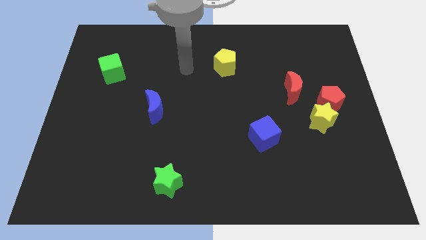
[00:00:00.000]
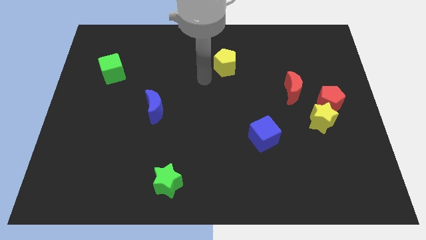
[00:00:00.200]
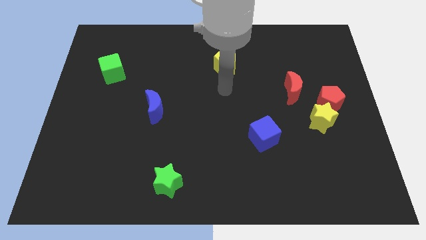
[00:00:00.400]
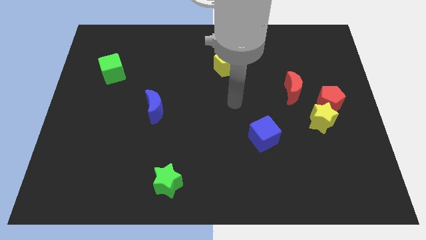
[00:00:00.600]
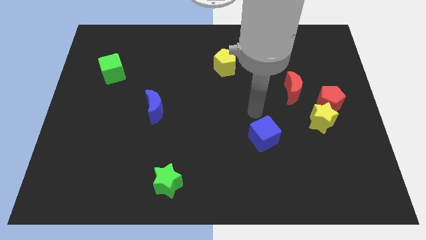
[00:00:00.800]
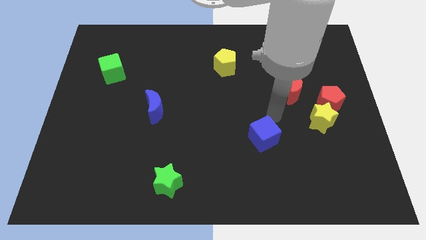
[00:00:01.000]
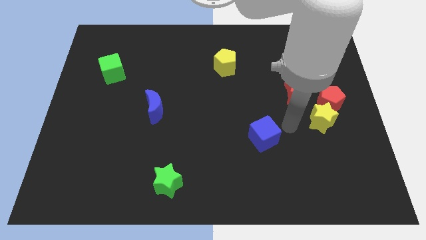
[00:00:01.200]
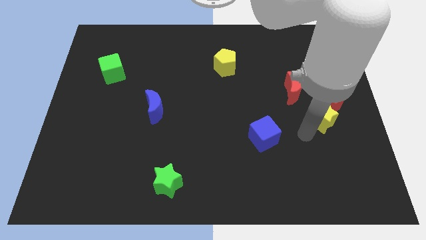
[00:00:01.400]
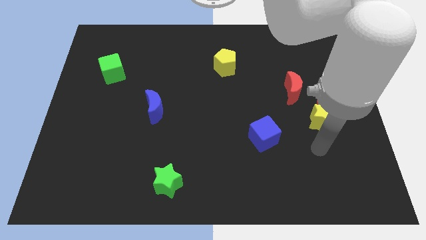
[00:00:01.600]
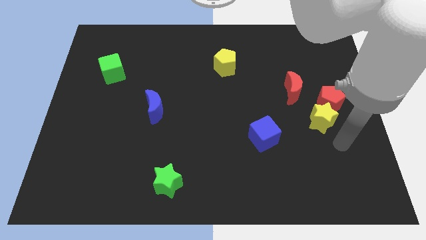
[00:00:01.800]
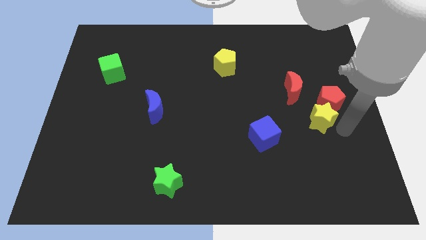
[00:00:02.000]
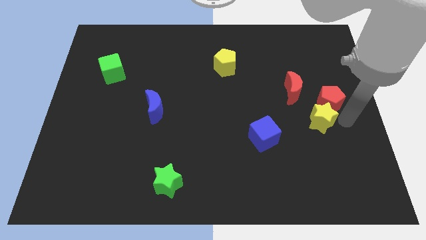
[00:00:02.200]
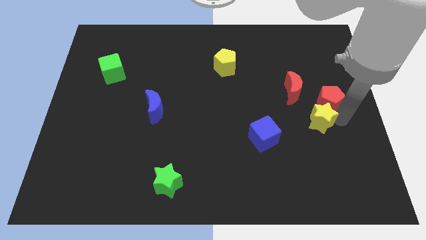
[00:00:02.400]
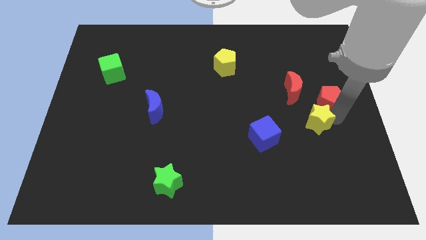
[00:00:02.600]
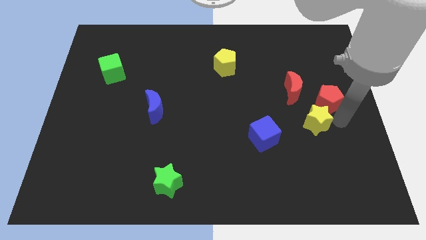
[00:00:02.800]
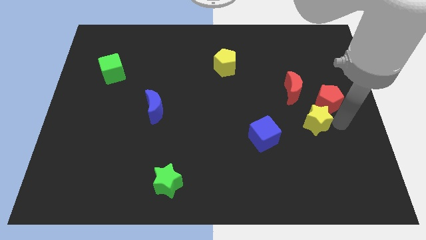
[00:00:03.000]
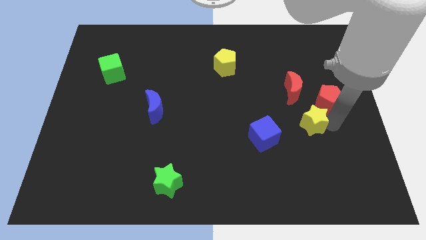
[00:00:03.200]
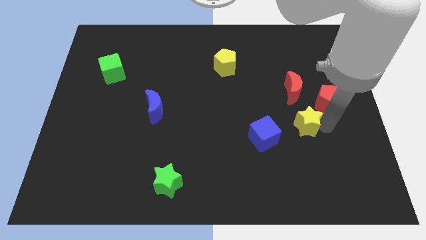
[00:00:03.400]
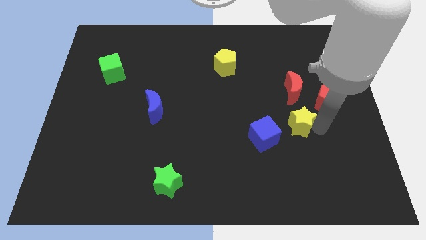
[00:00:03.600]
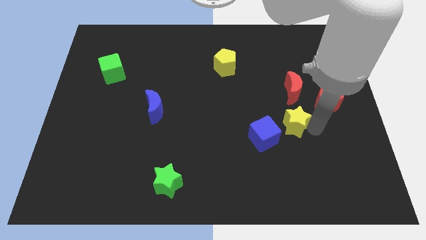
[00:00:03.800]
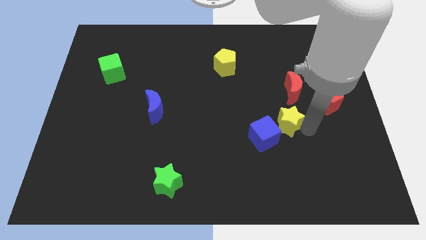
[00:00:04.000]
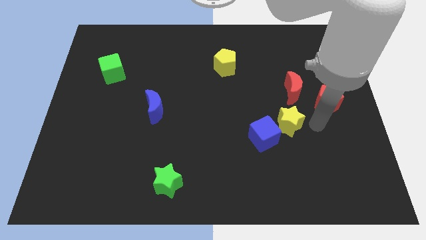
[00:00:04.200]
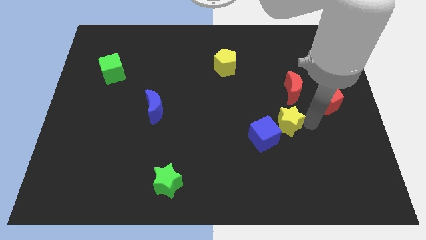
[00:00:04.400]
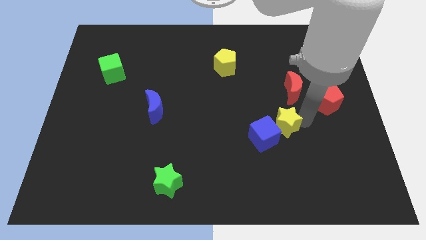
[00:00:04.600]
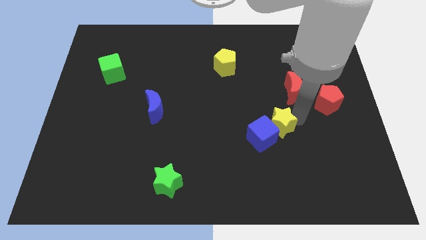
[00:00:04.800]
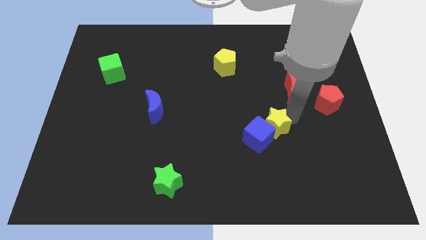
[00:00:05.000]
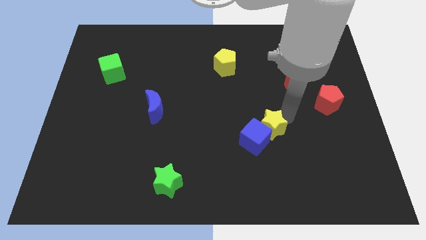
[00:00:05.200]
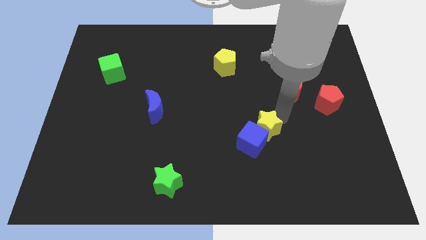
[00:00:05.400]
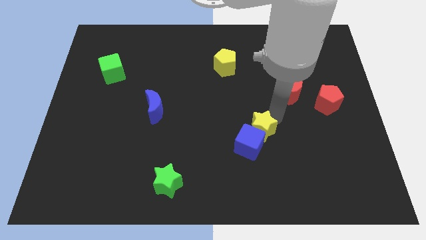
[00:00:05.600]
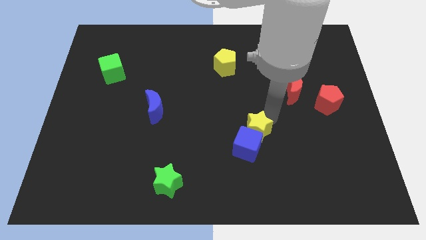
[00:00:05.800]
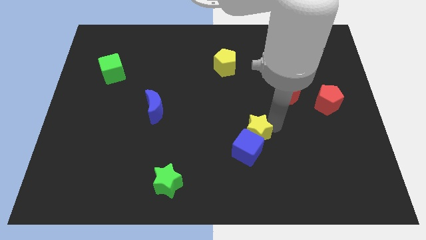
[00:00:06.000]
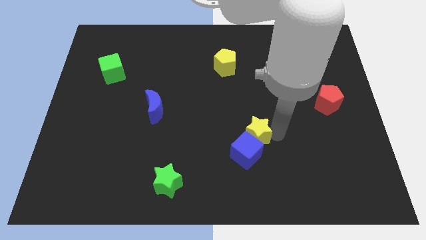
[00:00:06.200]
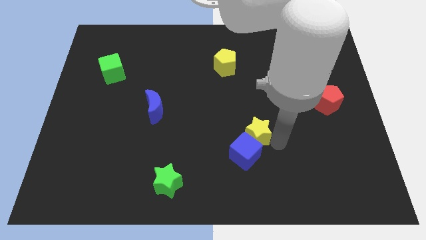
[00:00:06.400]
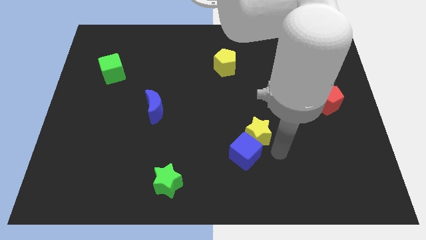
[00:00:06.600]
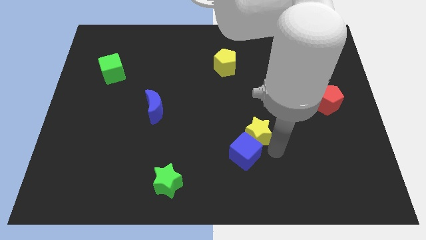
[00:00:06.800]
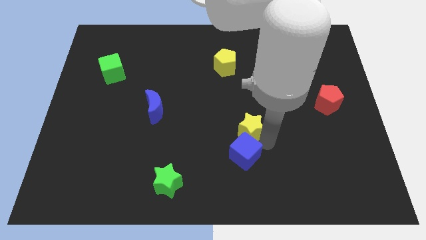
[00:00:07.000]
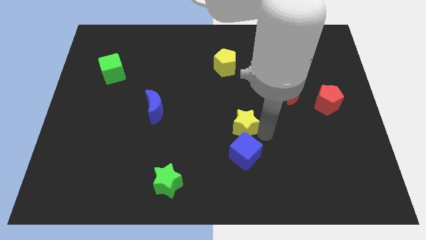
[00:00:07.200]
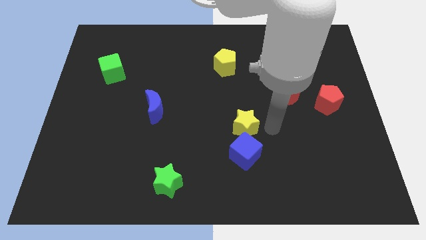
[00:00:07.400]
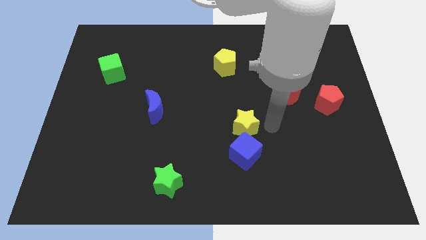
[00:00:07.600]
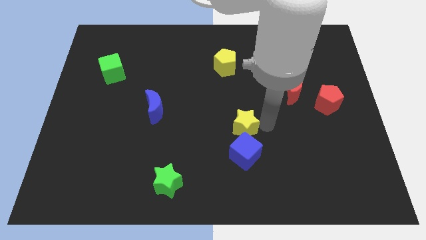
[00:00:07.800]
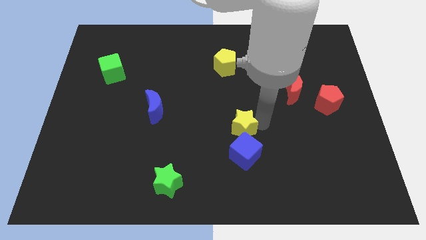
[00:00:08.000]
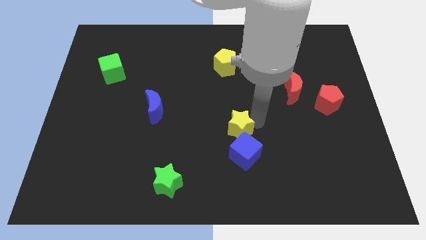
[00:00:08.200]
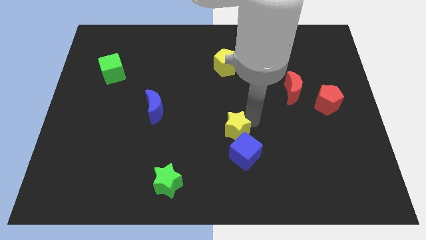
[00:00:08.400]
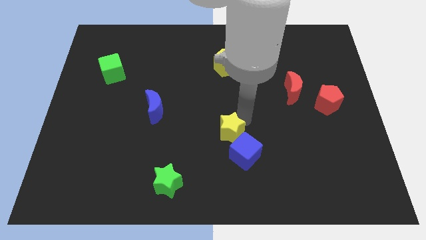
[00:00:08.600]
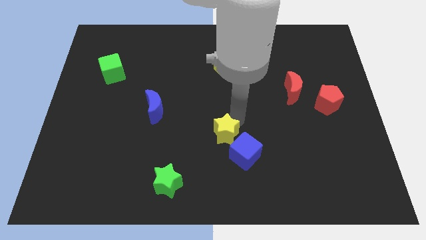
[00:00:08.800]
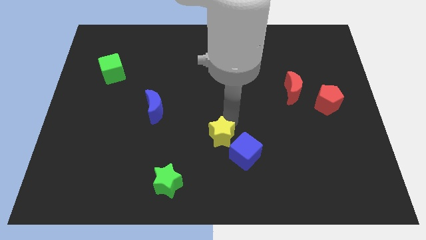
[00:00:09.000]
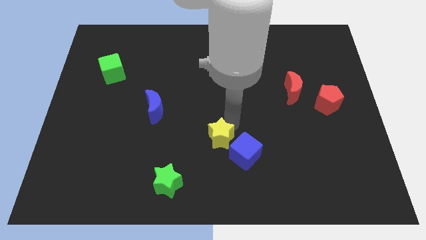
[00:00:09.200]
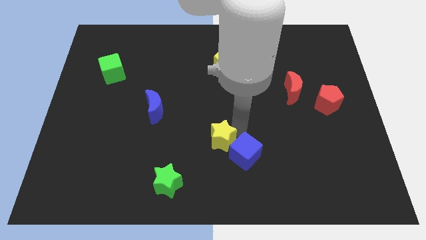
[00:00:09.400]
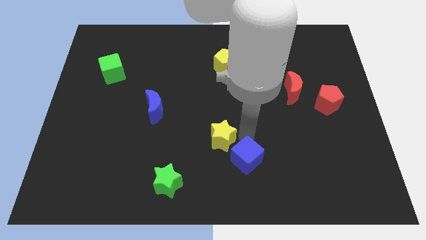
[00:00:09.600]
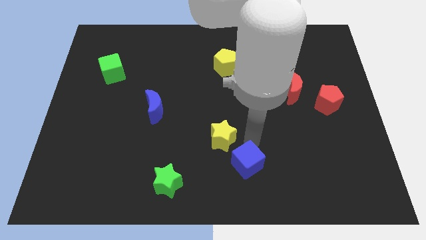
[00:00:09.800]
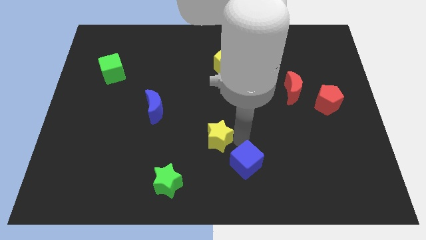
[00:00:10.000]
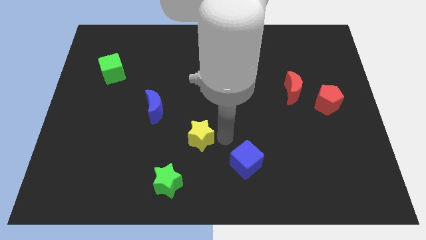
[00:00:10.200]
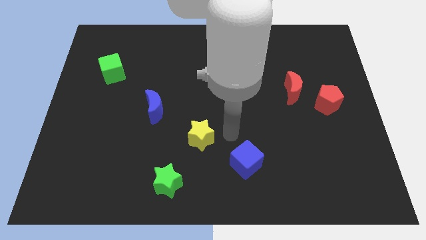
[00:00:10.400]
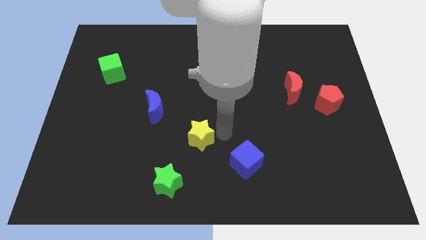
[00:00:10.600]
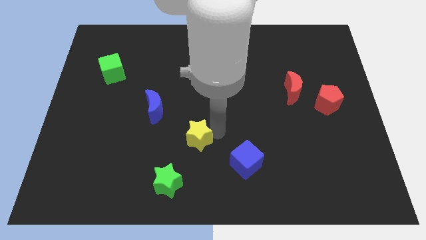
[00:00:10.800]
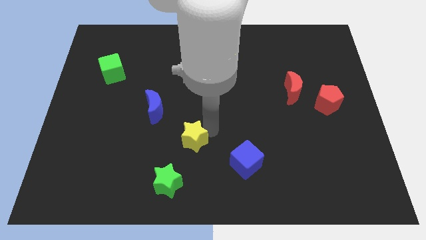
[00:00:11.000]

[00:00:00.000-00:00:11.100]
slide the yellow star to the top side of the green star

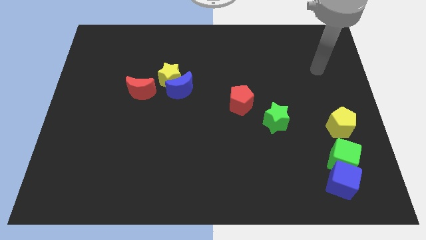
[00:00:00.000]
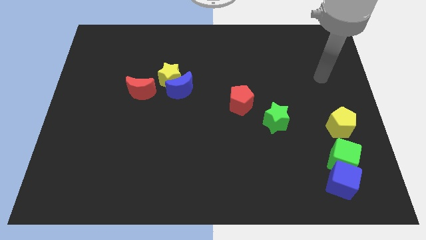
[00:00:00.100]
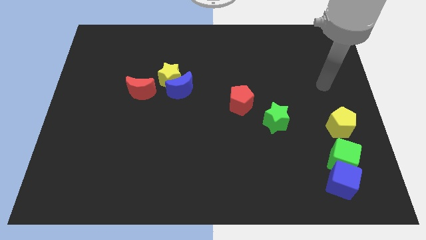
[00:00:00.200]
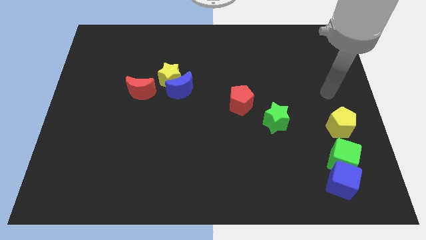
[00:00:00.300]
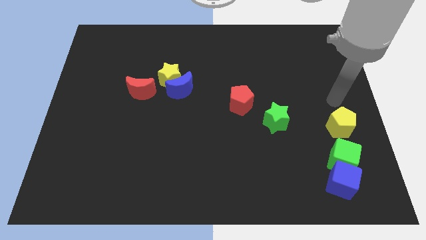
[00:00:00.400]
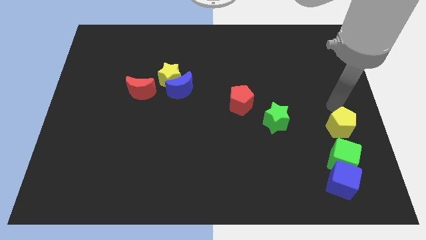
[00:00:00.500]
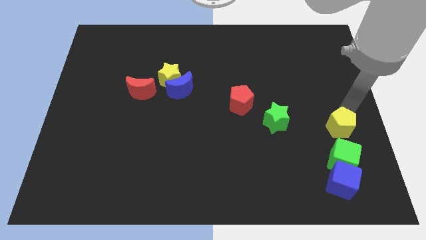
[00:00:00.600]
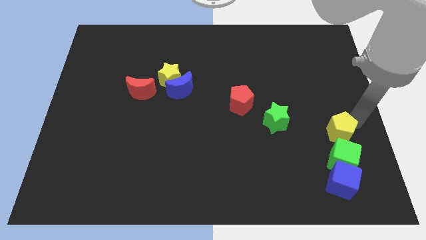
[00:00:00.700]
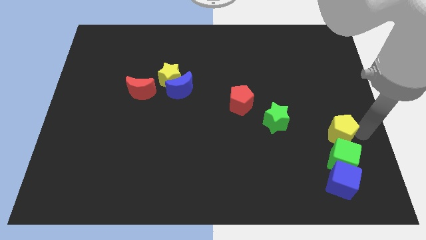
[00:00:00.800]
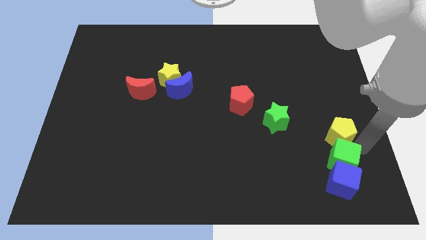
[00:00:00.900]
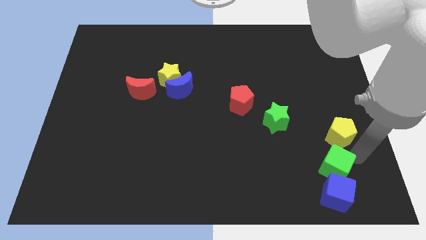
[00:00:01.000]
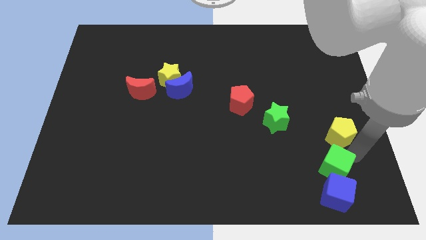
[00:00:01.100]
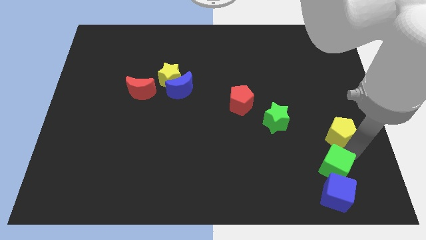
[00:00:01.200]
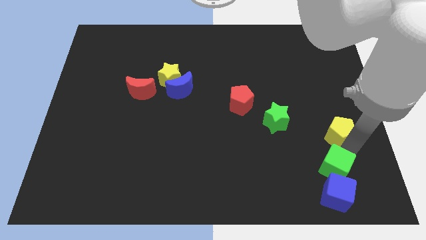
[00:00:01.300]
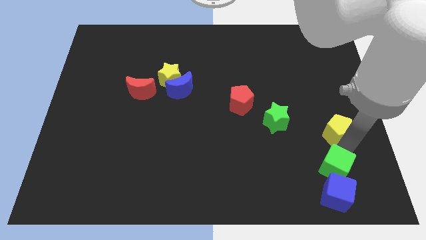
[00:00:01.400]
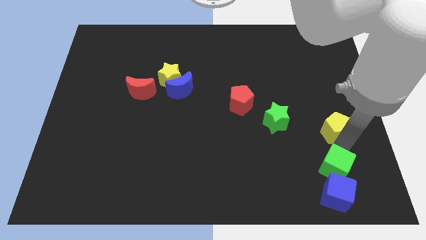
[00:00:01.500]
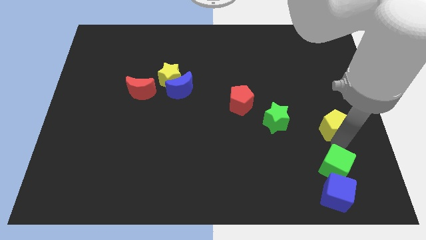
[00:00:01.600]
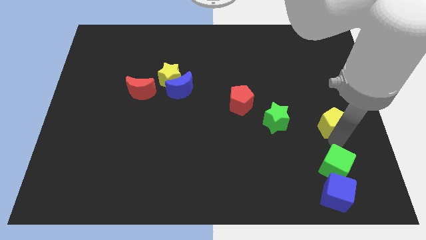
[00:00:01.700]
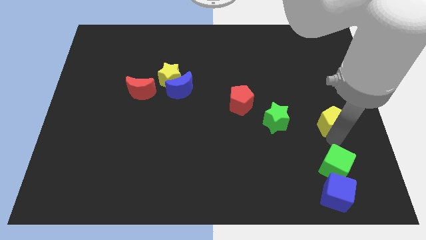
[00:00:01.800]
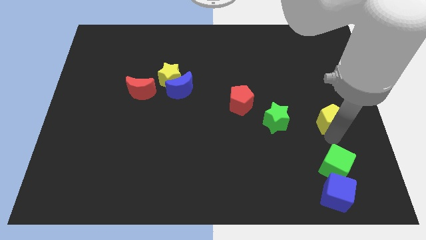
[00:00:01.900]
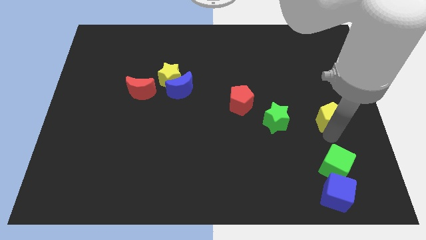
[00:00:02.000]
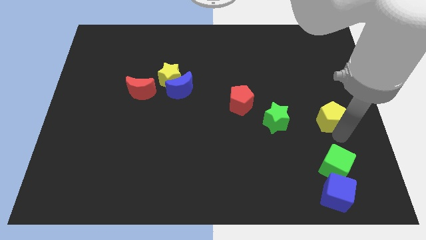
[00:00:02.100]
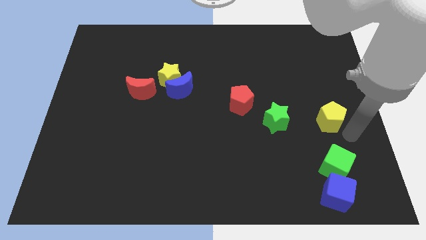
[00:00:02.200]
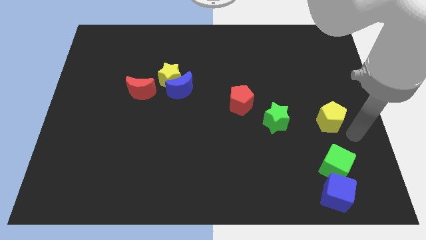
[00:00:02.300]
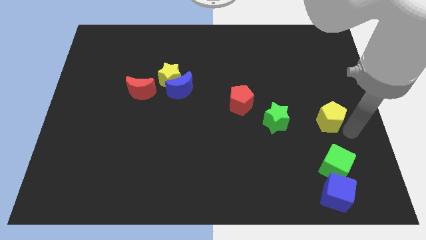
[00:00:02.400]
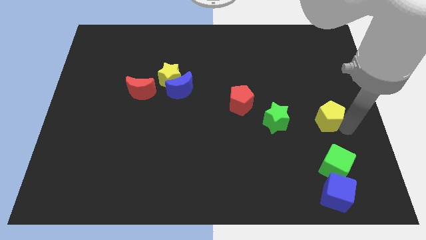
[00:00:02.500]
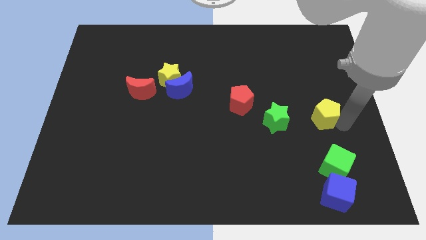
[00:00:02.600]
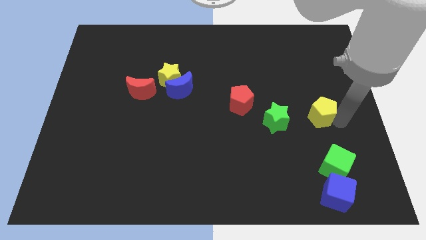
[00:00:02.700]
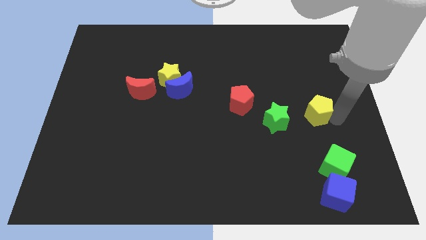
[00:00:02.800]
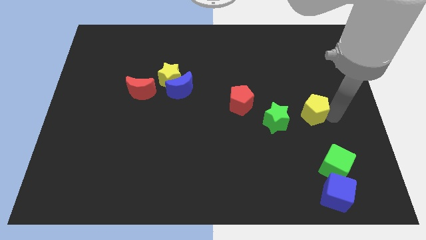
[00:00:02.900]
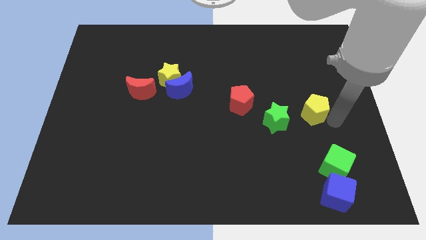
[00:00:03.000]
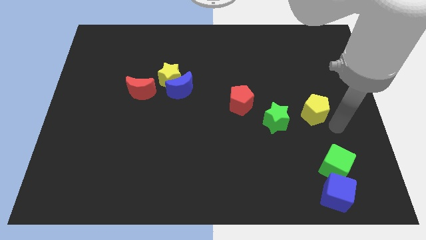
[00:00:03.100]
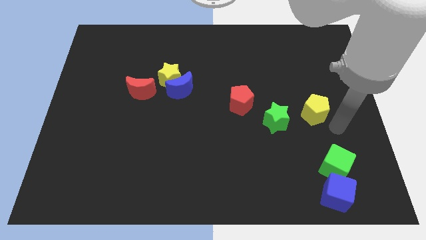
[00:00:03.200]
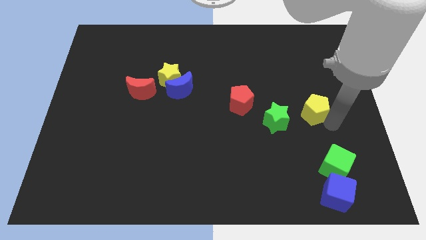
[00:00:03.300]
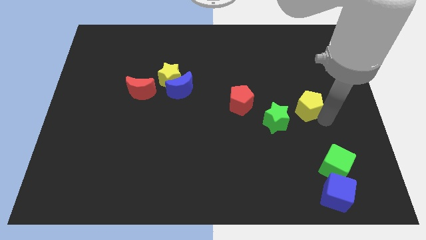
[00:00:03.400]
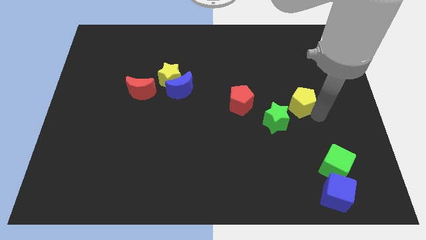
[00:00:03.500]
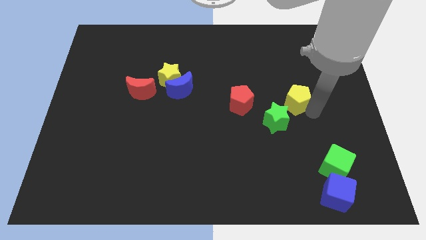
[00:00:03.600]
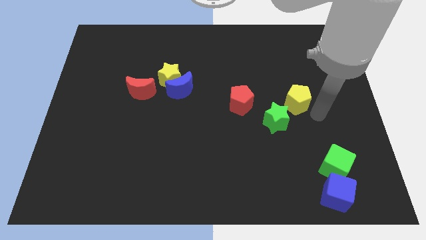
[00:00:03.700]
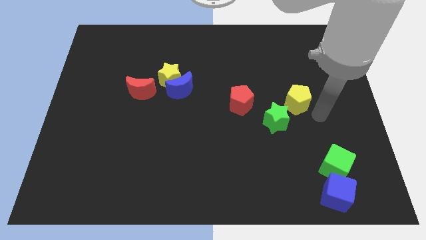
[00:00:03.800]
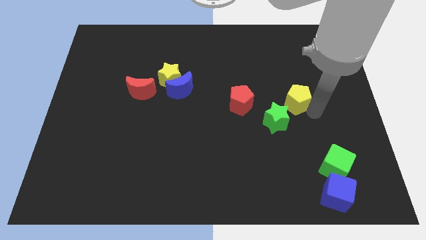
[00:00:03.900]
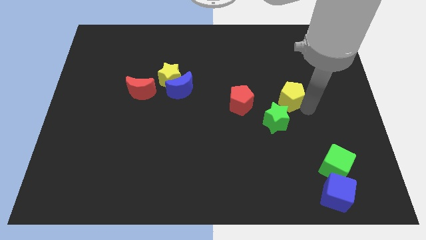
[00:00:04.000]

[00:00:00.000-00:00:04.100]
move the yellow pentagon to the top of the green star
